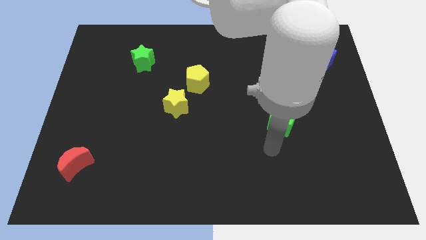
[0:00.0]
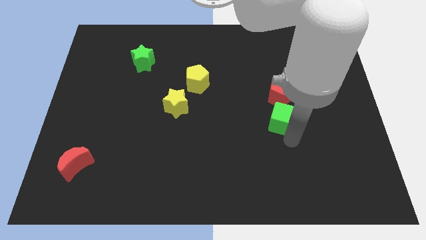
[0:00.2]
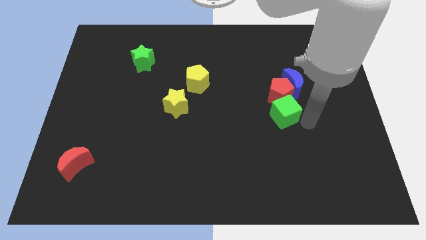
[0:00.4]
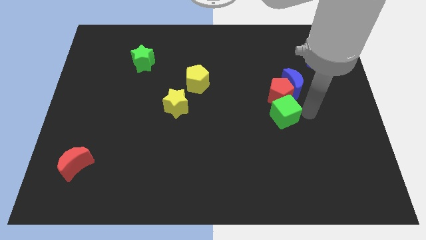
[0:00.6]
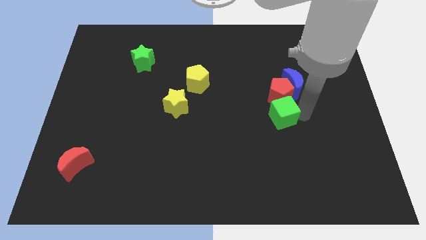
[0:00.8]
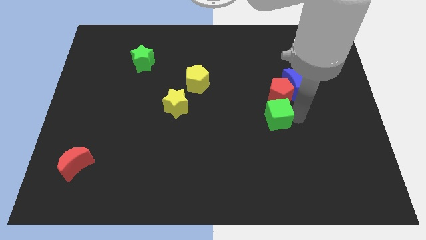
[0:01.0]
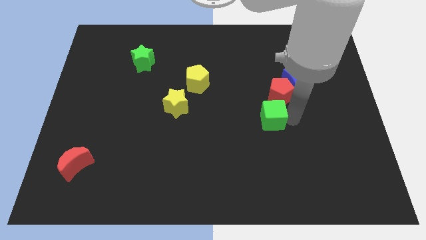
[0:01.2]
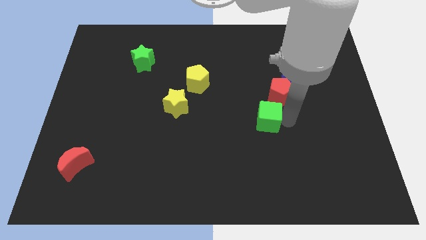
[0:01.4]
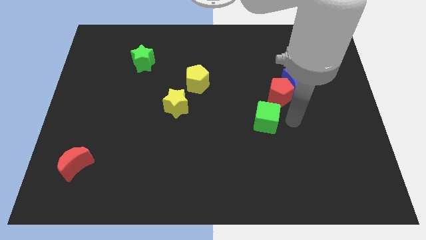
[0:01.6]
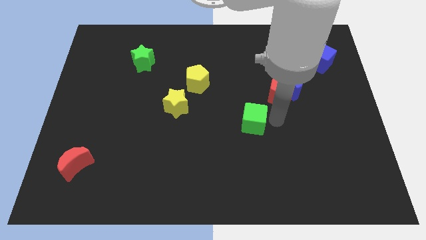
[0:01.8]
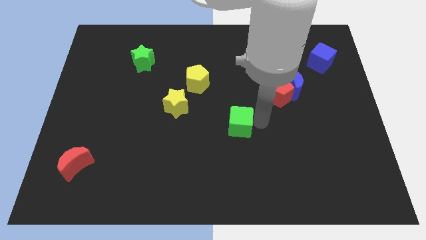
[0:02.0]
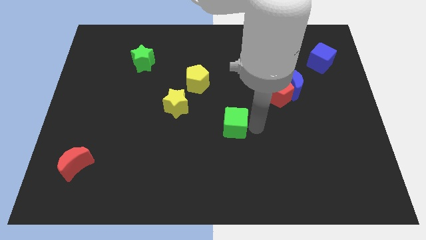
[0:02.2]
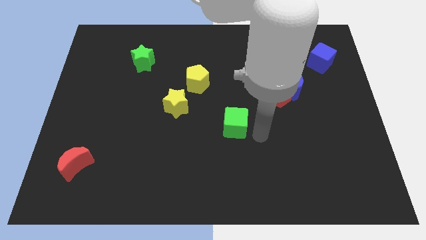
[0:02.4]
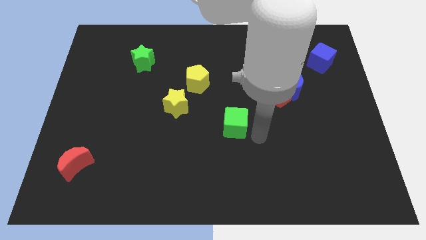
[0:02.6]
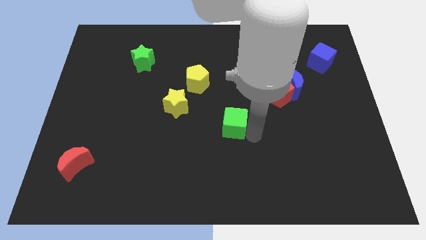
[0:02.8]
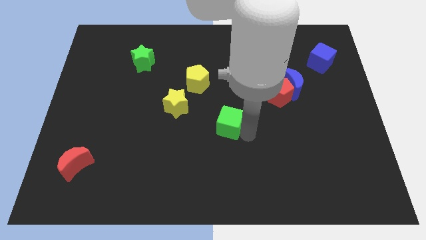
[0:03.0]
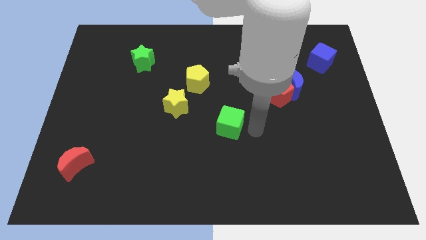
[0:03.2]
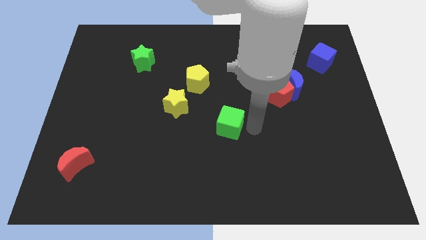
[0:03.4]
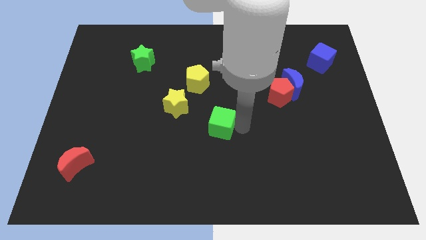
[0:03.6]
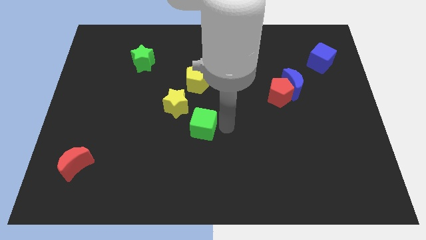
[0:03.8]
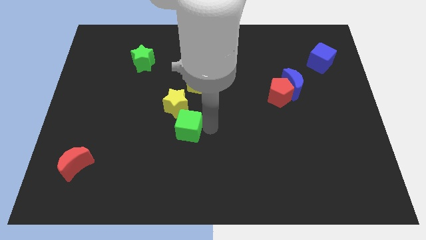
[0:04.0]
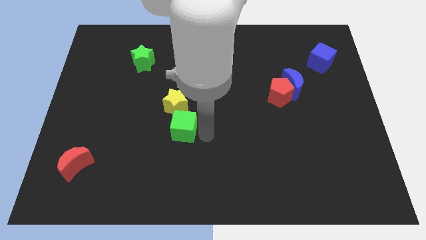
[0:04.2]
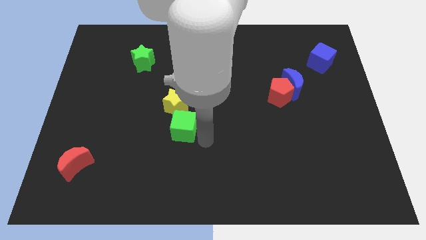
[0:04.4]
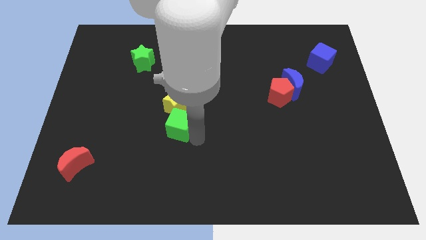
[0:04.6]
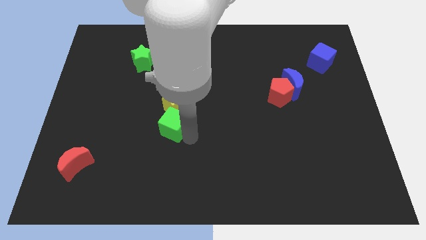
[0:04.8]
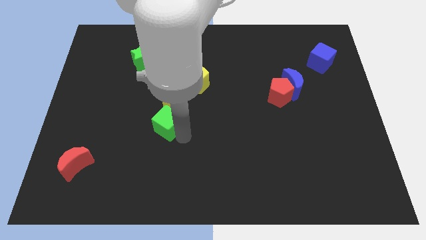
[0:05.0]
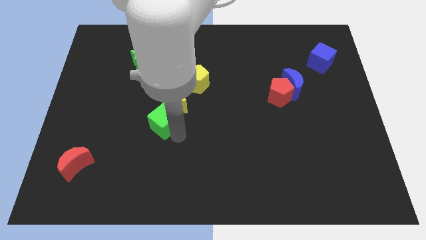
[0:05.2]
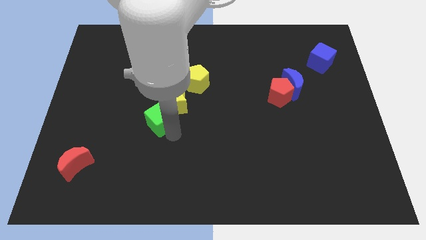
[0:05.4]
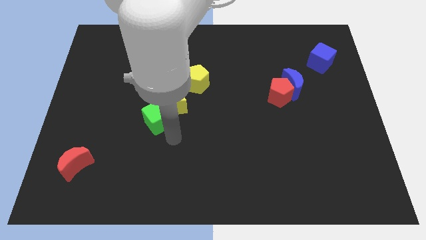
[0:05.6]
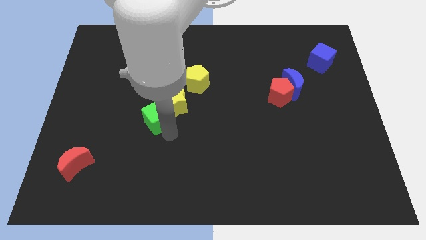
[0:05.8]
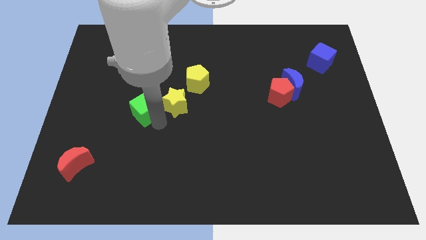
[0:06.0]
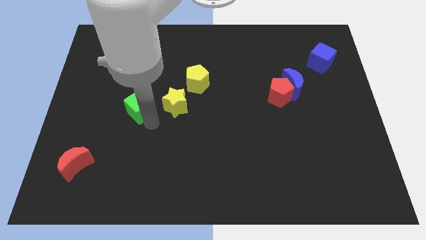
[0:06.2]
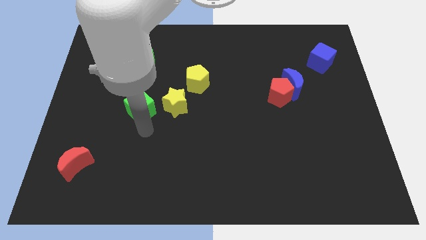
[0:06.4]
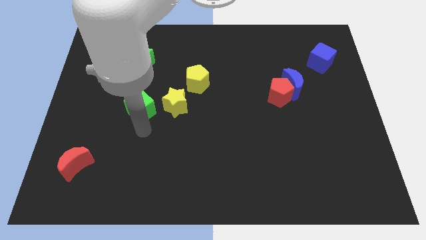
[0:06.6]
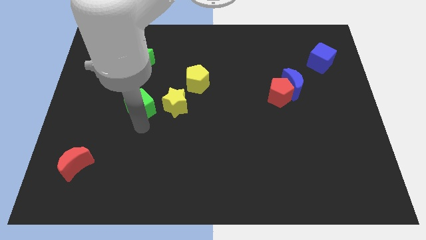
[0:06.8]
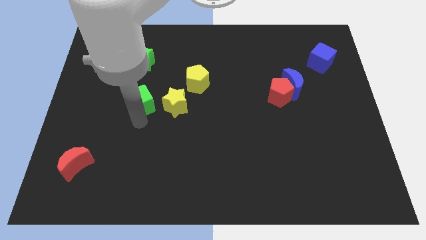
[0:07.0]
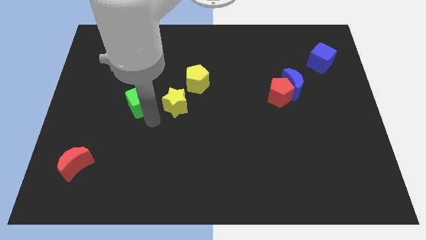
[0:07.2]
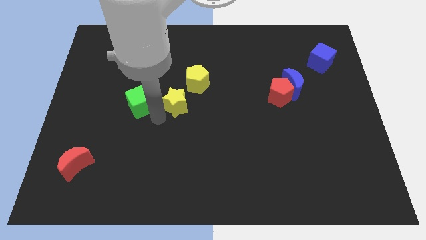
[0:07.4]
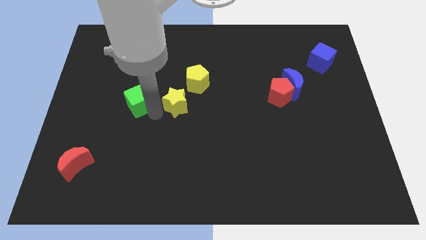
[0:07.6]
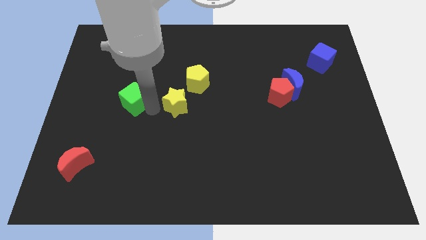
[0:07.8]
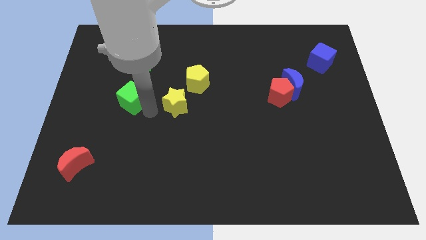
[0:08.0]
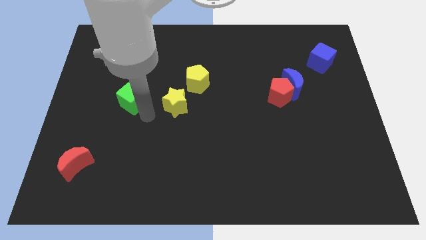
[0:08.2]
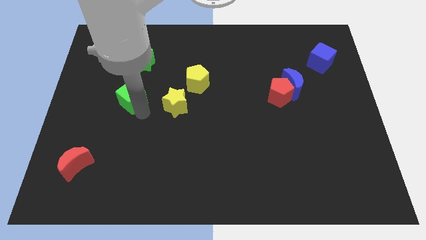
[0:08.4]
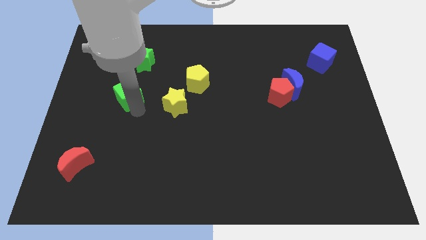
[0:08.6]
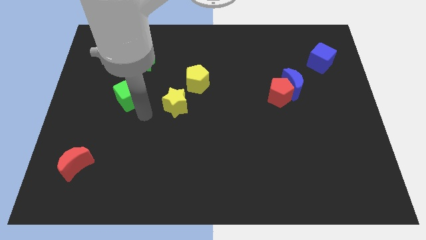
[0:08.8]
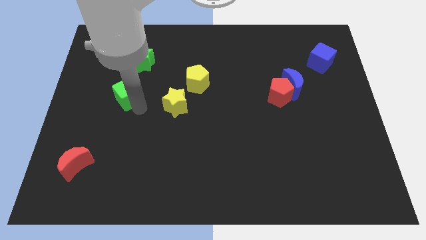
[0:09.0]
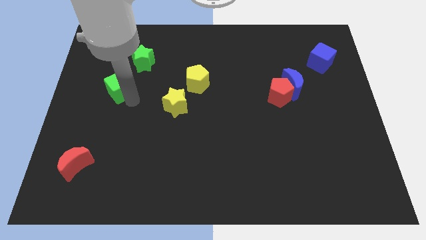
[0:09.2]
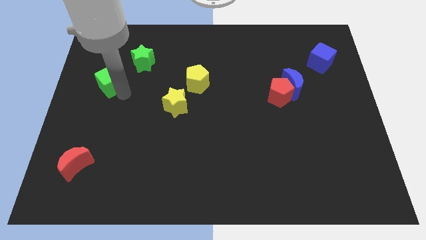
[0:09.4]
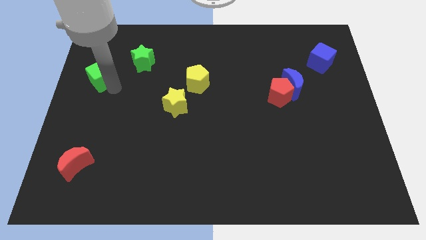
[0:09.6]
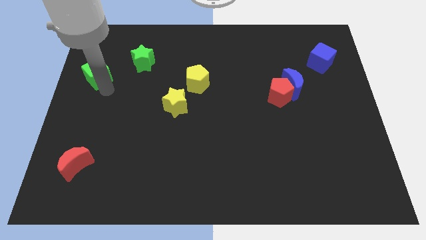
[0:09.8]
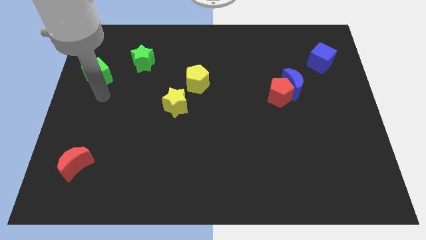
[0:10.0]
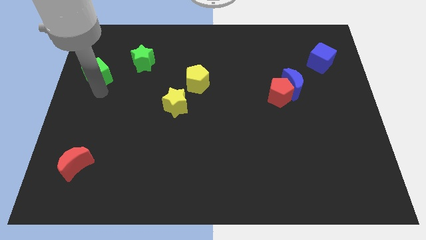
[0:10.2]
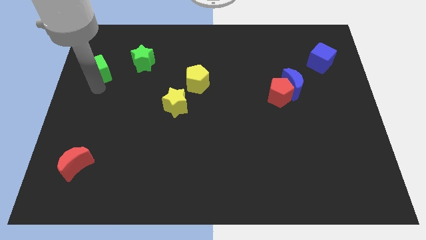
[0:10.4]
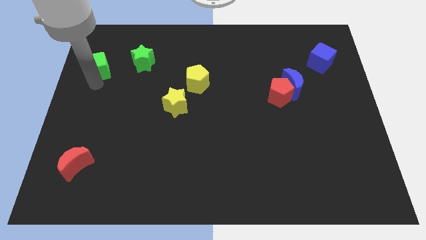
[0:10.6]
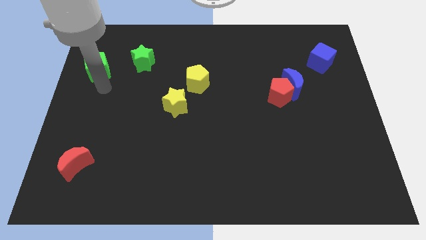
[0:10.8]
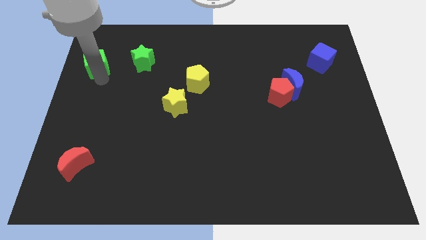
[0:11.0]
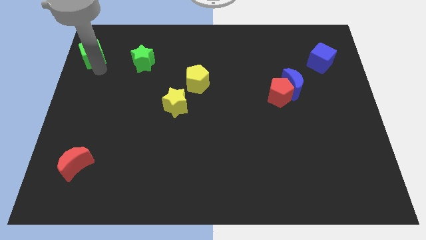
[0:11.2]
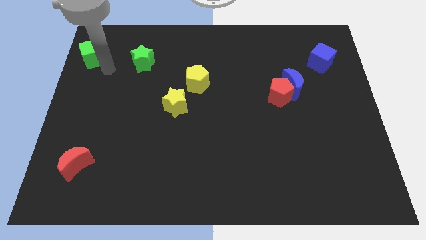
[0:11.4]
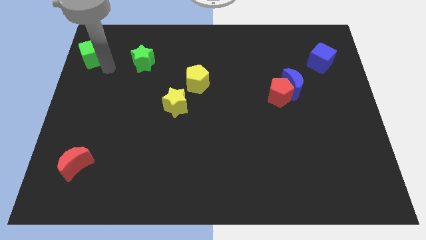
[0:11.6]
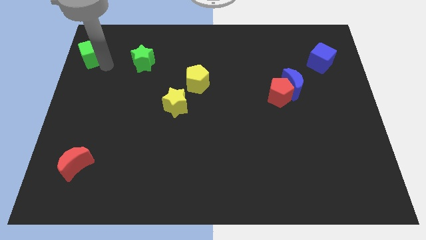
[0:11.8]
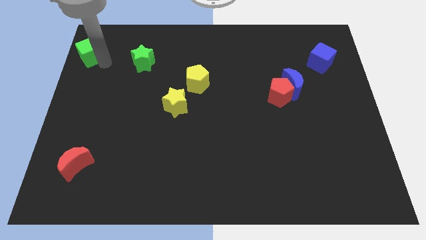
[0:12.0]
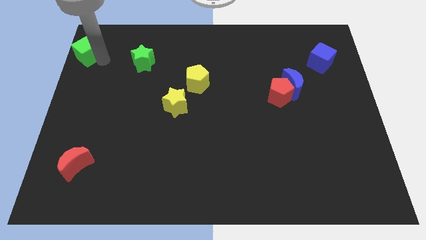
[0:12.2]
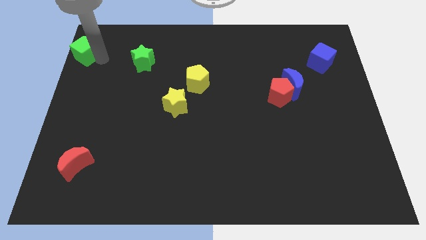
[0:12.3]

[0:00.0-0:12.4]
move the green cube to the top left corner

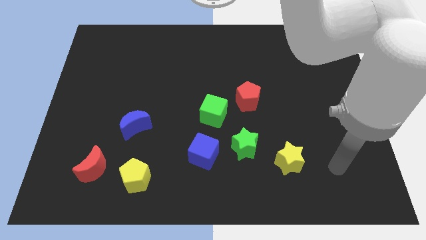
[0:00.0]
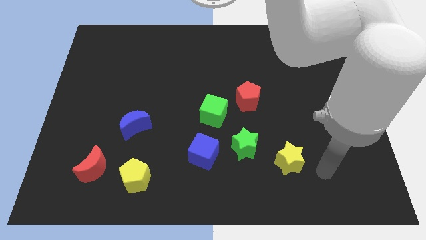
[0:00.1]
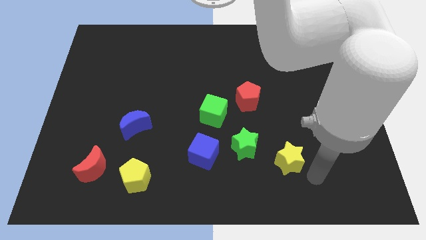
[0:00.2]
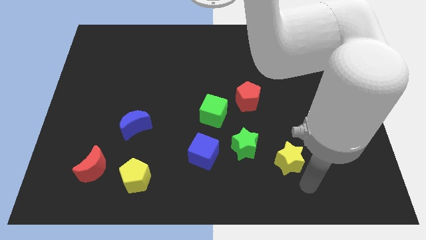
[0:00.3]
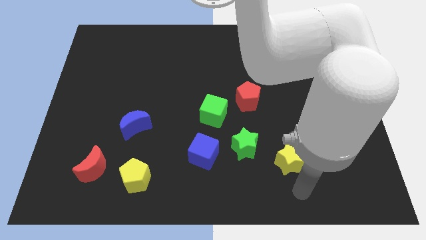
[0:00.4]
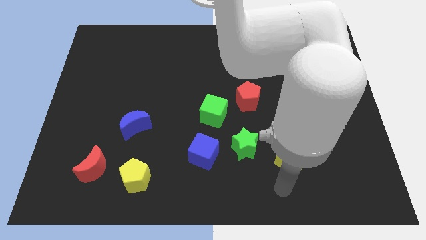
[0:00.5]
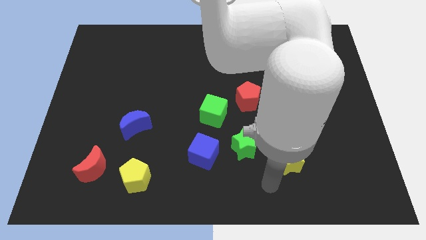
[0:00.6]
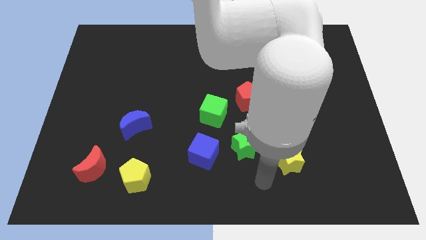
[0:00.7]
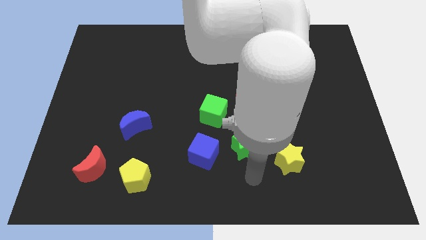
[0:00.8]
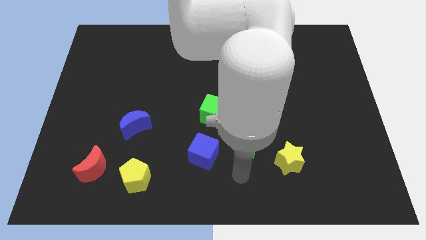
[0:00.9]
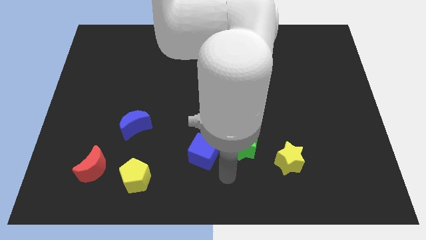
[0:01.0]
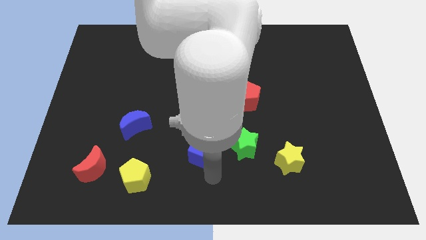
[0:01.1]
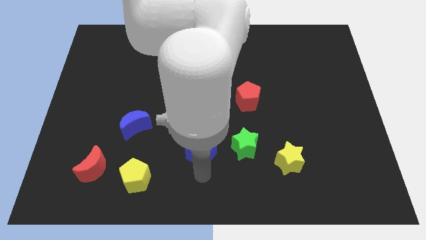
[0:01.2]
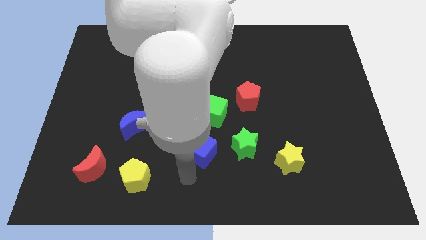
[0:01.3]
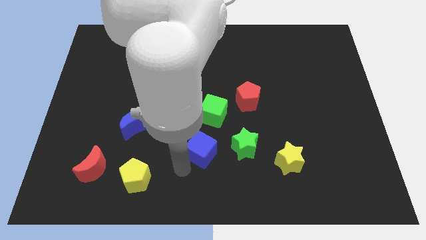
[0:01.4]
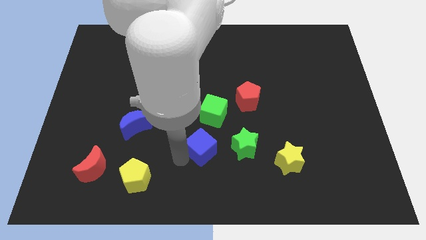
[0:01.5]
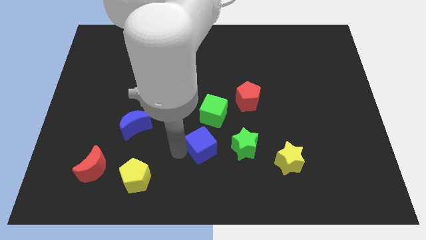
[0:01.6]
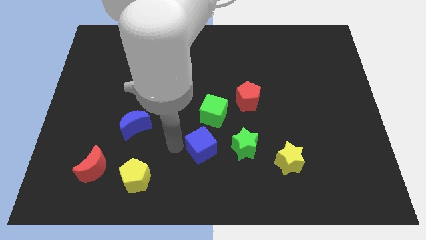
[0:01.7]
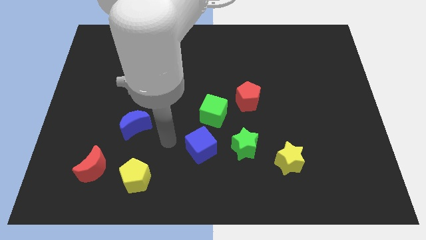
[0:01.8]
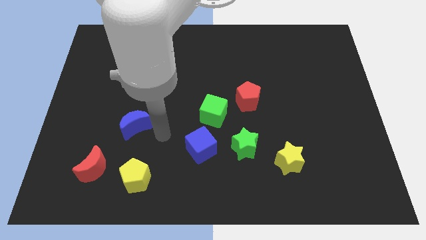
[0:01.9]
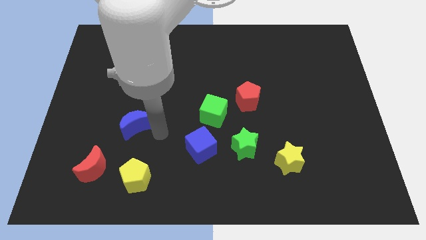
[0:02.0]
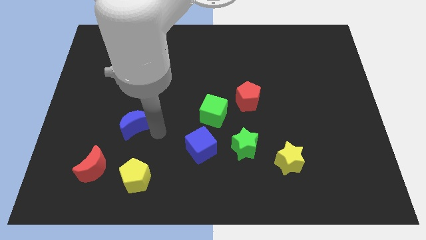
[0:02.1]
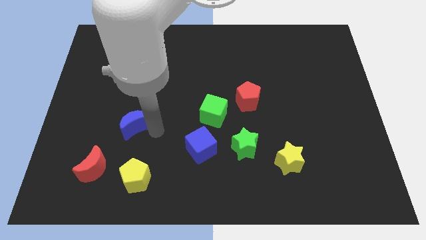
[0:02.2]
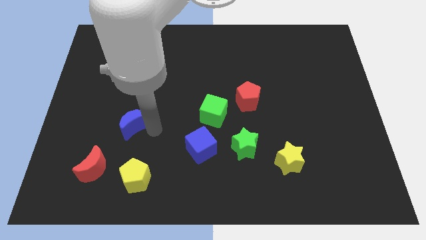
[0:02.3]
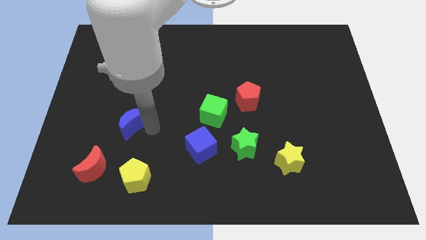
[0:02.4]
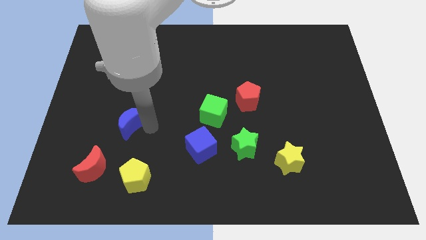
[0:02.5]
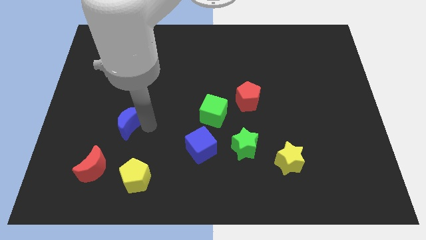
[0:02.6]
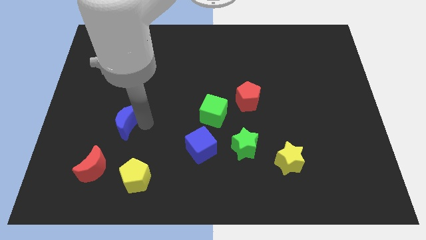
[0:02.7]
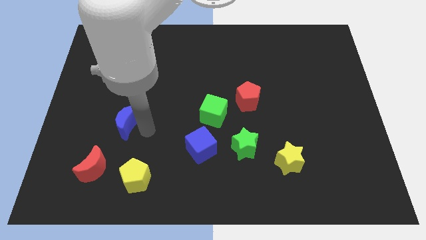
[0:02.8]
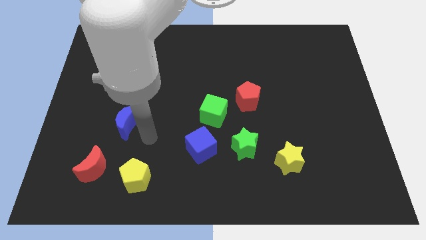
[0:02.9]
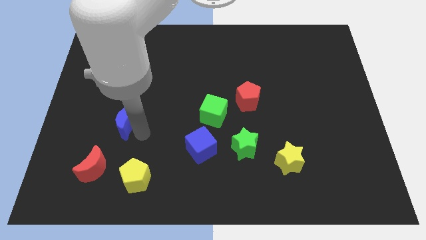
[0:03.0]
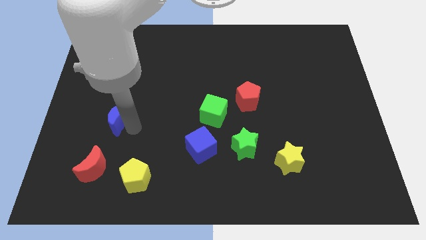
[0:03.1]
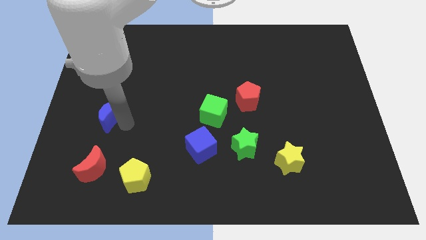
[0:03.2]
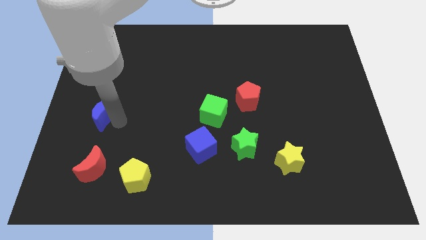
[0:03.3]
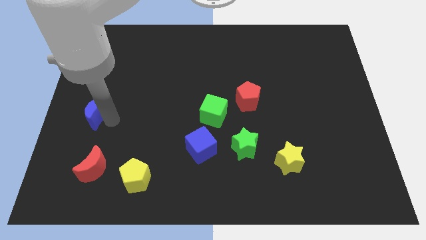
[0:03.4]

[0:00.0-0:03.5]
put the blue moon to the left side of the board
